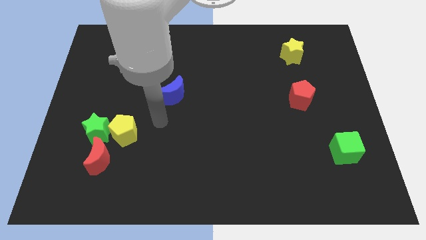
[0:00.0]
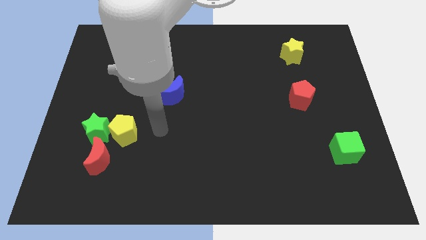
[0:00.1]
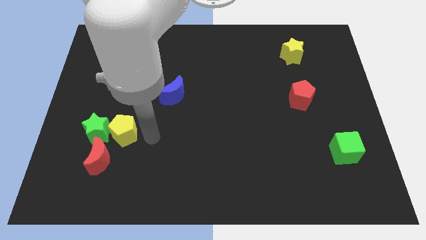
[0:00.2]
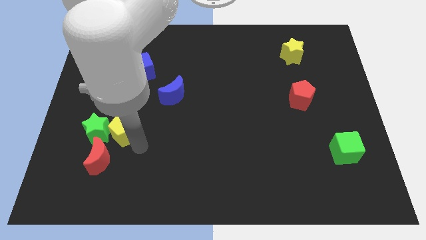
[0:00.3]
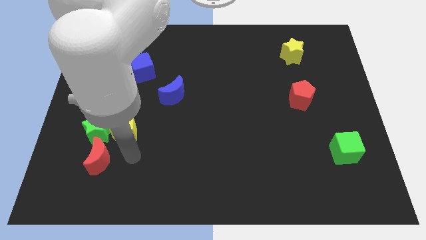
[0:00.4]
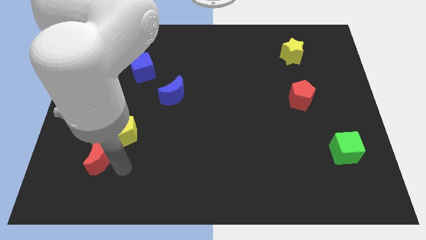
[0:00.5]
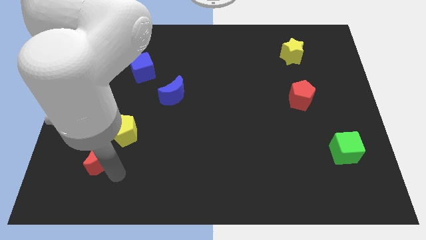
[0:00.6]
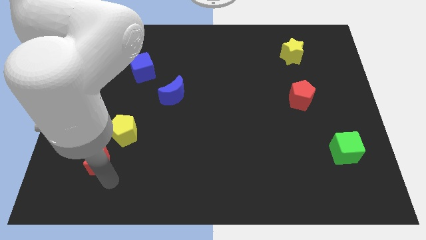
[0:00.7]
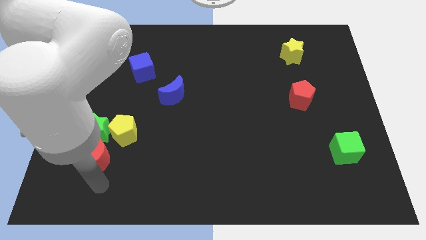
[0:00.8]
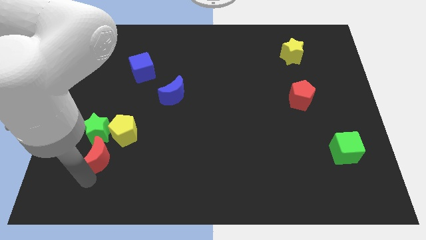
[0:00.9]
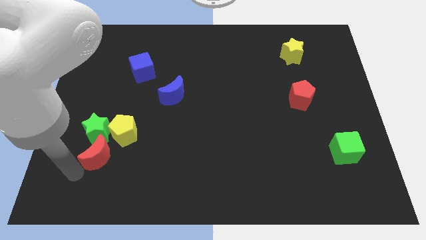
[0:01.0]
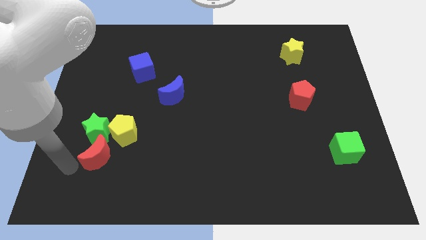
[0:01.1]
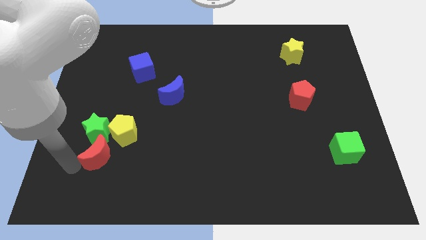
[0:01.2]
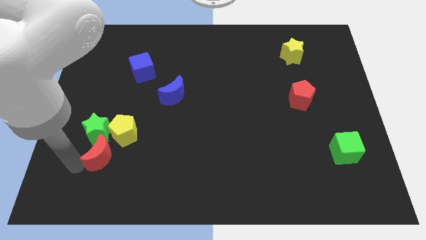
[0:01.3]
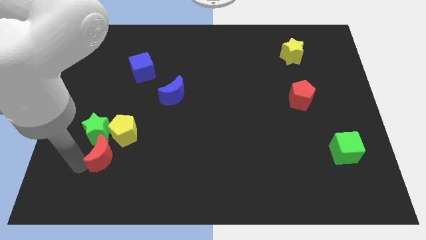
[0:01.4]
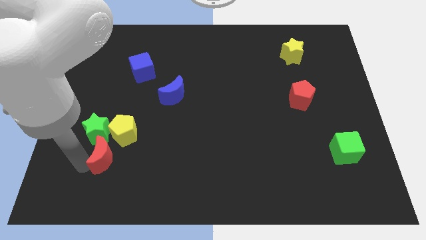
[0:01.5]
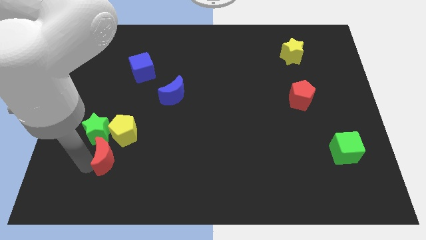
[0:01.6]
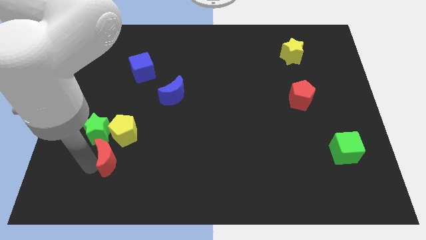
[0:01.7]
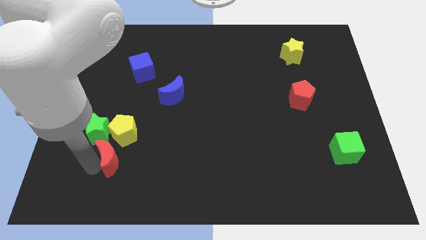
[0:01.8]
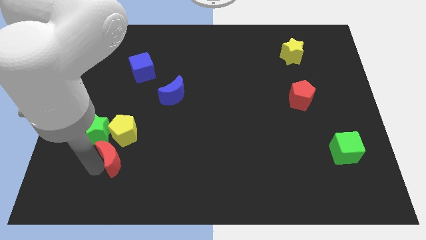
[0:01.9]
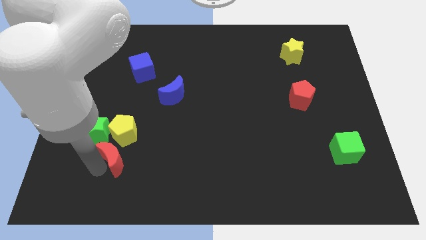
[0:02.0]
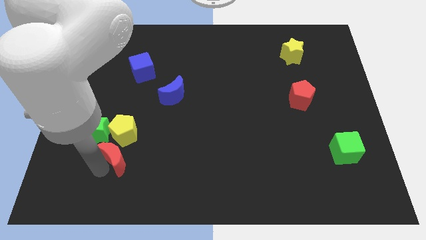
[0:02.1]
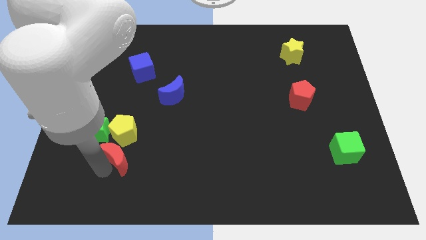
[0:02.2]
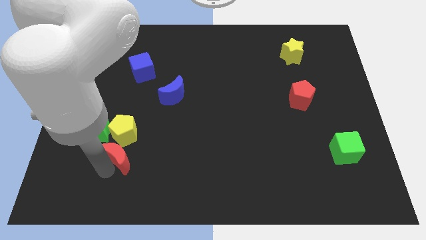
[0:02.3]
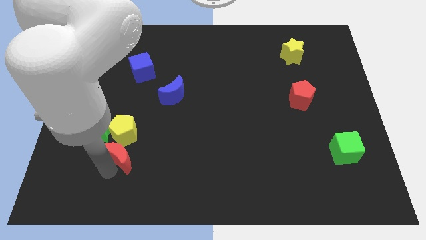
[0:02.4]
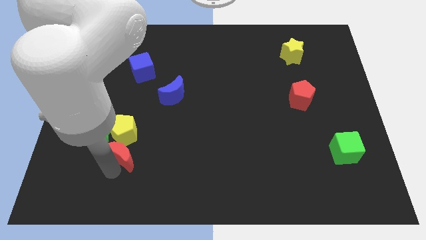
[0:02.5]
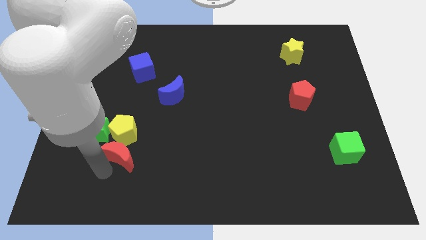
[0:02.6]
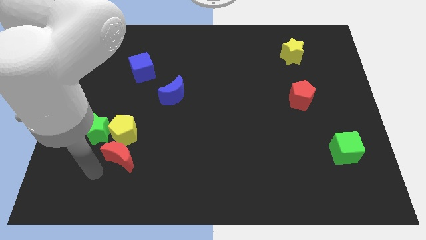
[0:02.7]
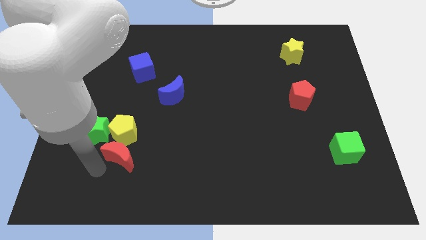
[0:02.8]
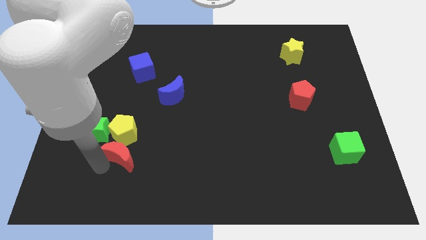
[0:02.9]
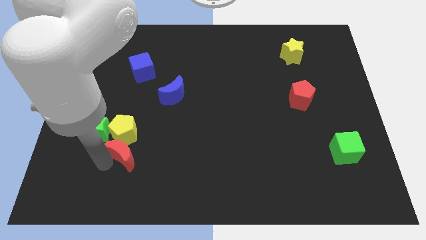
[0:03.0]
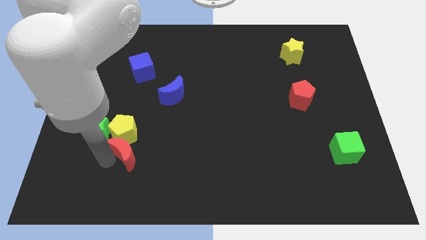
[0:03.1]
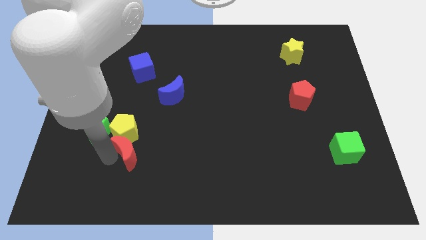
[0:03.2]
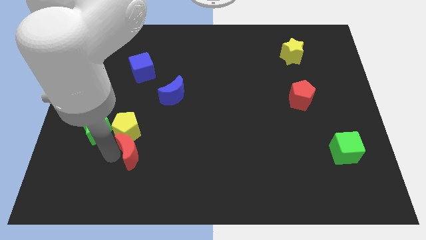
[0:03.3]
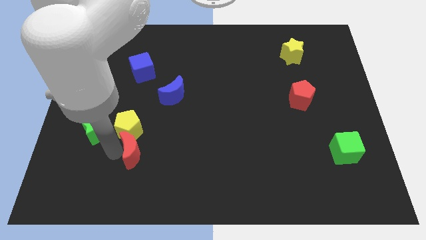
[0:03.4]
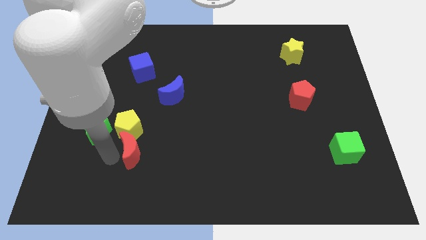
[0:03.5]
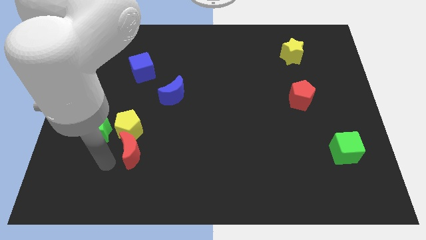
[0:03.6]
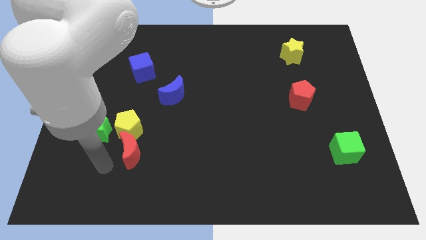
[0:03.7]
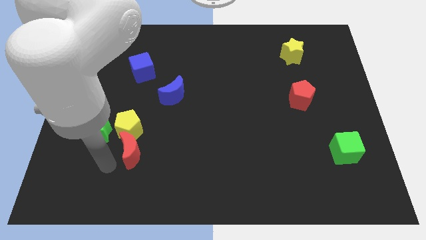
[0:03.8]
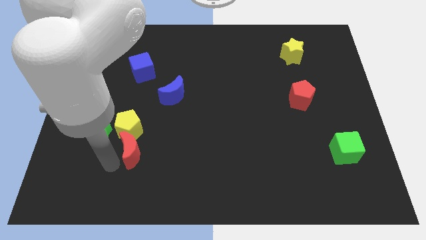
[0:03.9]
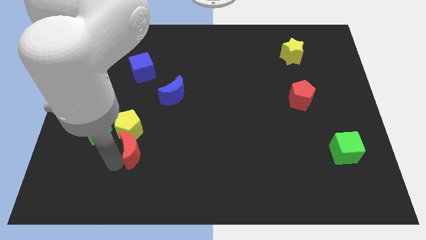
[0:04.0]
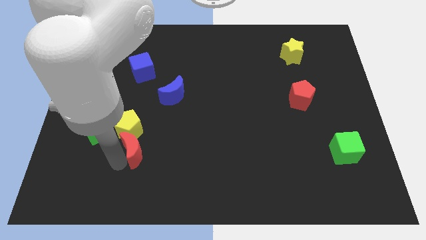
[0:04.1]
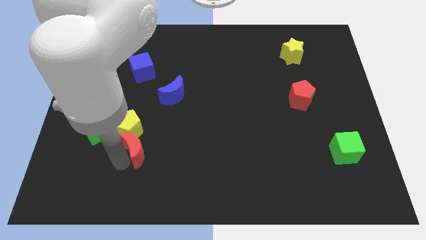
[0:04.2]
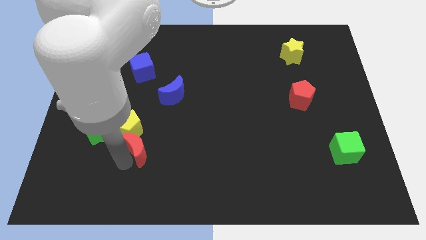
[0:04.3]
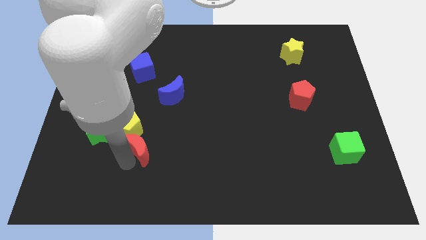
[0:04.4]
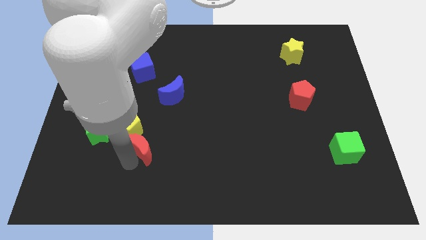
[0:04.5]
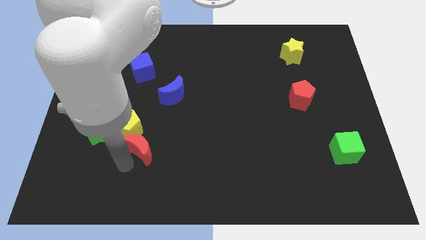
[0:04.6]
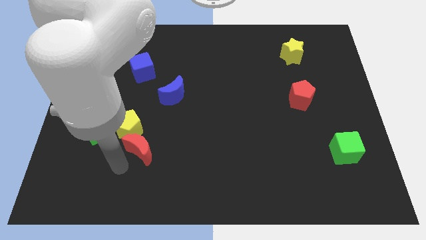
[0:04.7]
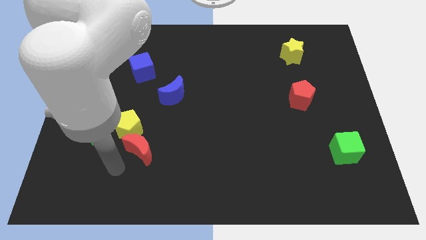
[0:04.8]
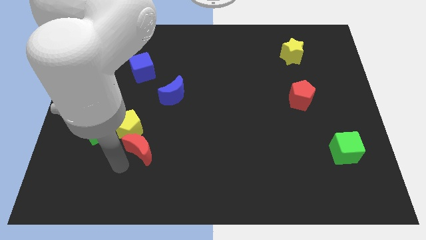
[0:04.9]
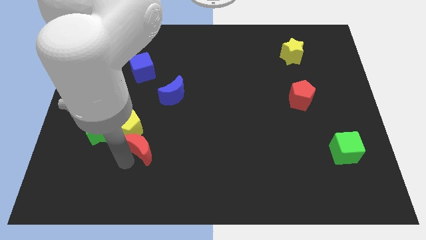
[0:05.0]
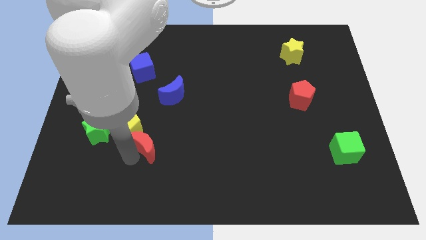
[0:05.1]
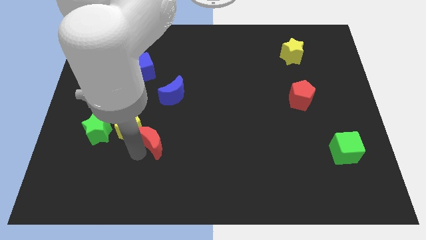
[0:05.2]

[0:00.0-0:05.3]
put the red moon to the bottom of the blue moon

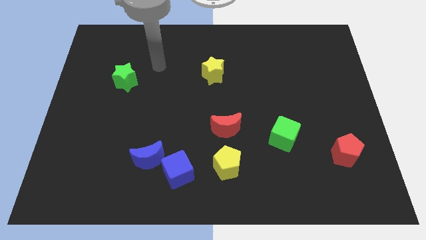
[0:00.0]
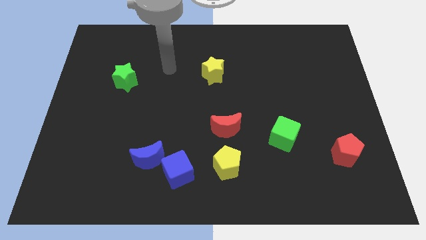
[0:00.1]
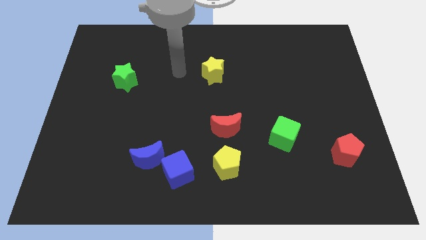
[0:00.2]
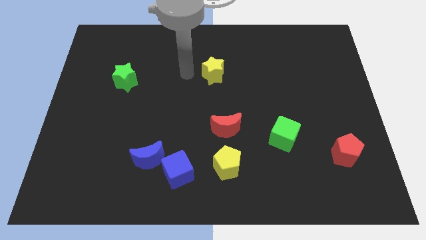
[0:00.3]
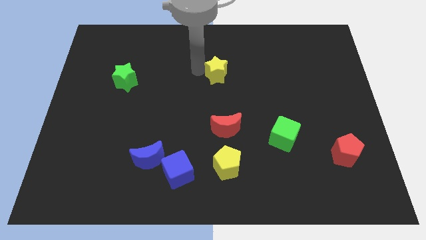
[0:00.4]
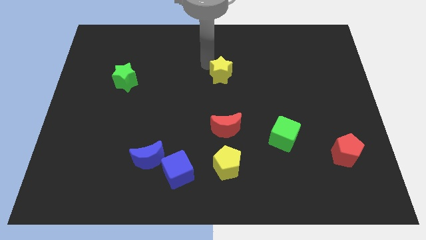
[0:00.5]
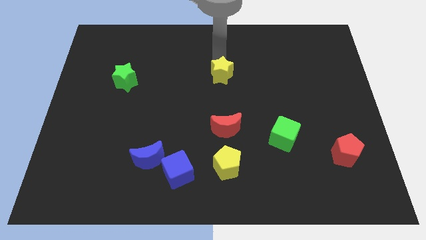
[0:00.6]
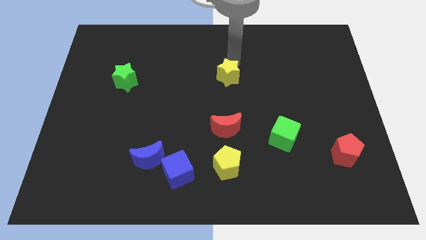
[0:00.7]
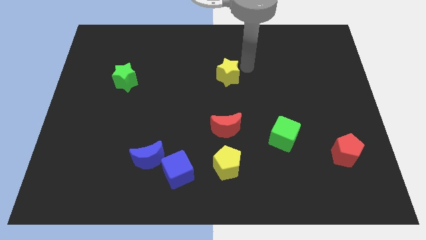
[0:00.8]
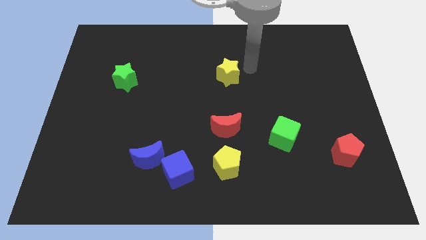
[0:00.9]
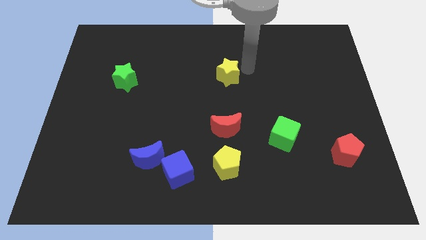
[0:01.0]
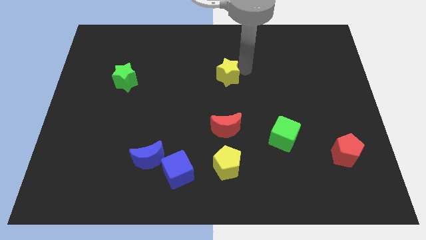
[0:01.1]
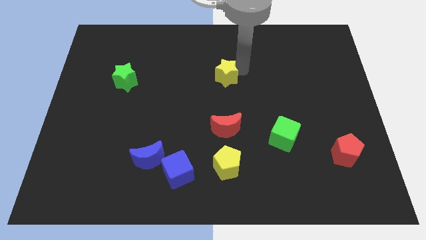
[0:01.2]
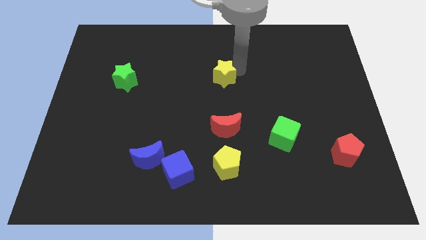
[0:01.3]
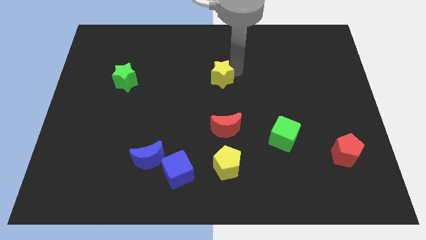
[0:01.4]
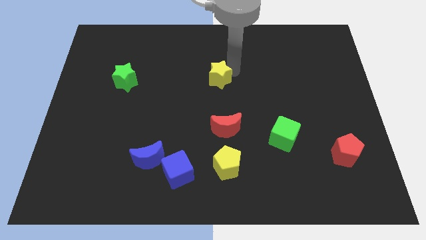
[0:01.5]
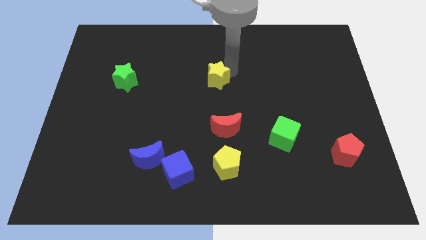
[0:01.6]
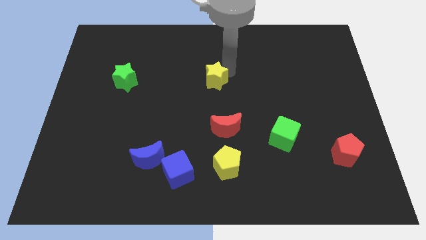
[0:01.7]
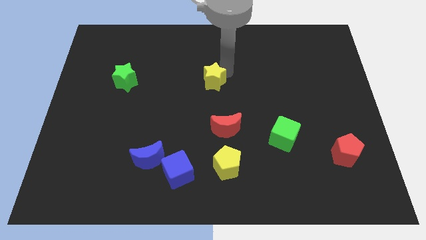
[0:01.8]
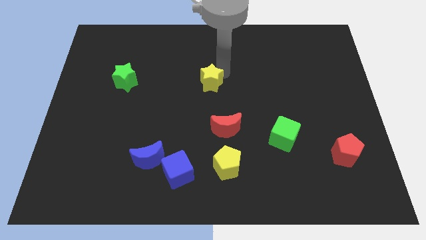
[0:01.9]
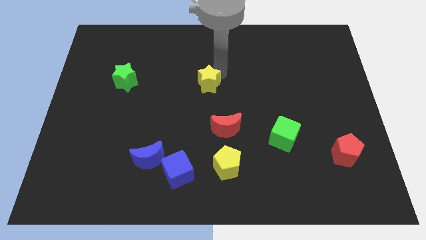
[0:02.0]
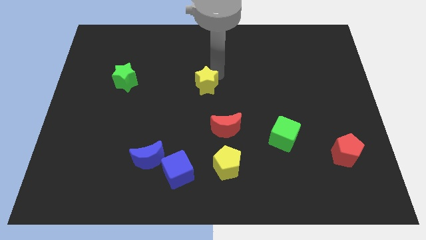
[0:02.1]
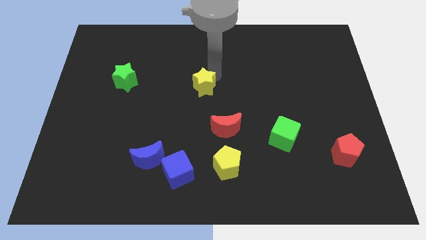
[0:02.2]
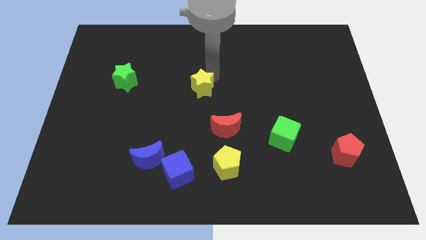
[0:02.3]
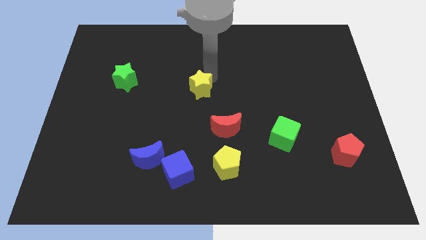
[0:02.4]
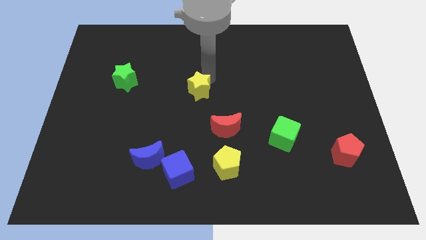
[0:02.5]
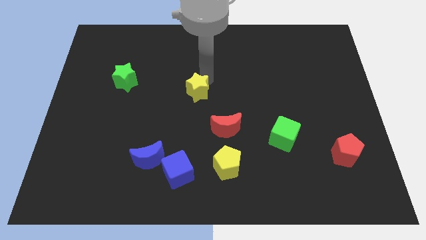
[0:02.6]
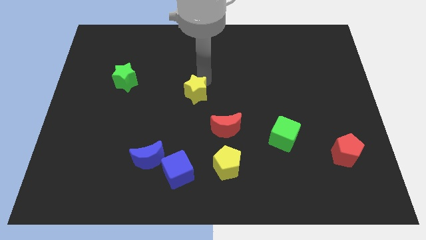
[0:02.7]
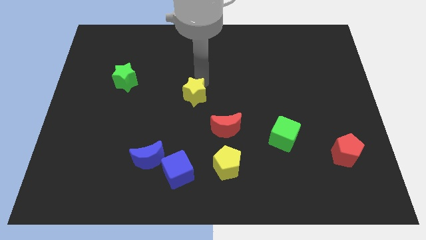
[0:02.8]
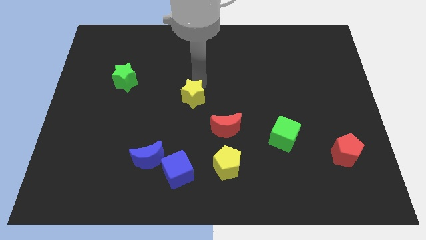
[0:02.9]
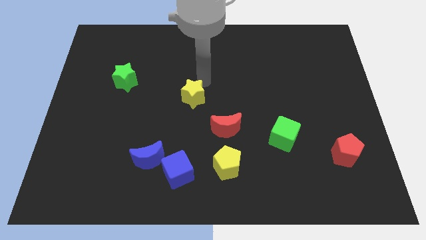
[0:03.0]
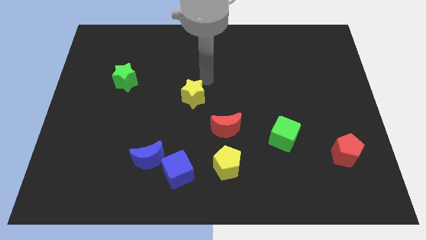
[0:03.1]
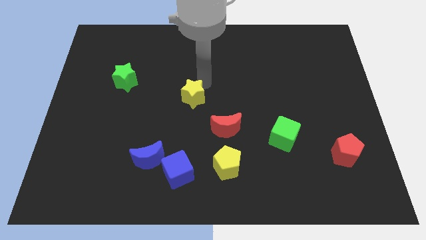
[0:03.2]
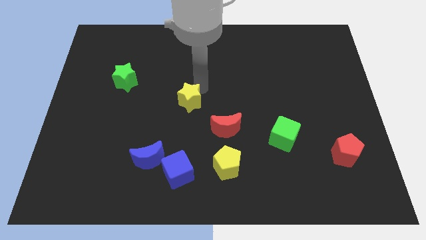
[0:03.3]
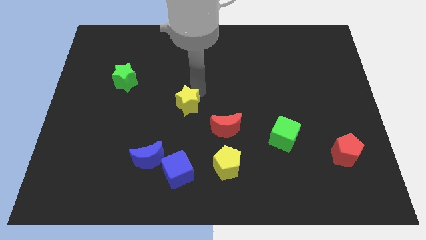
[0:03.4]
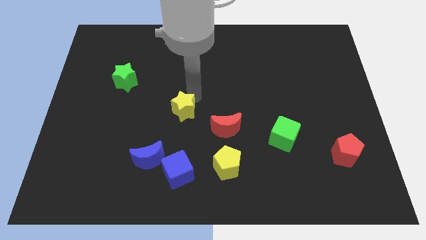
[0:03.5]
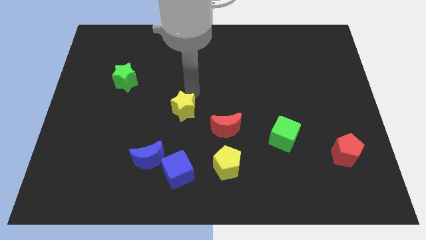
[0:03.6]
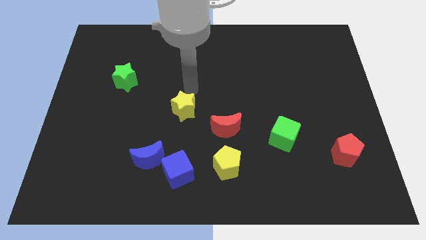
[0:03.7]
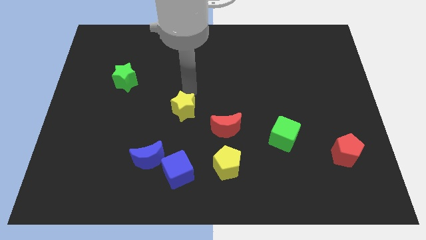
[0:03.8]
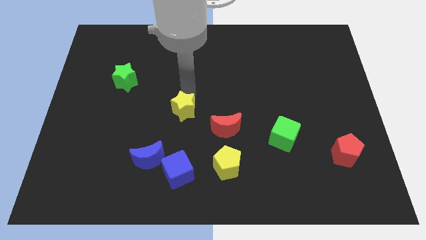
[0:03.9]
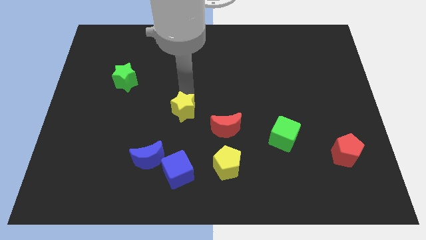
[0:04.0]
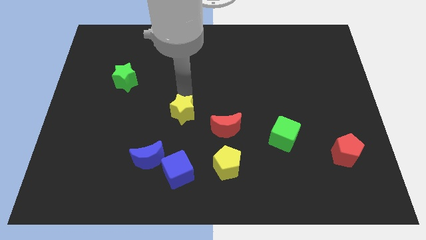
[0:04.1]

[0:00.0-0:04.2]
slide the yellow star to the left of the red moon
